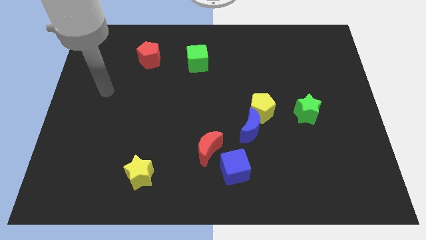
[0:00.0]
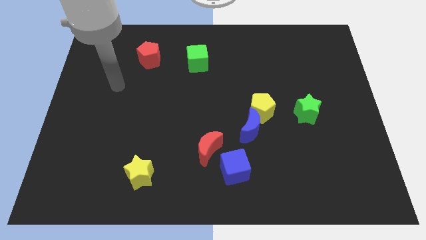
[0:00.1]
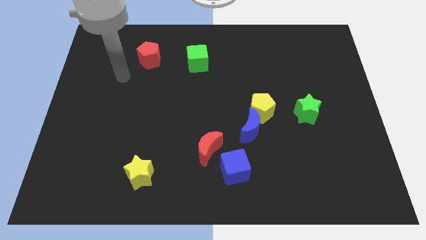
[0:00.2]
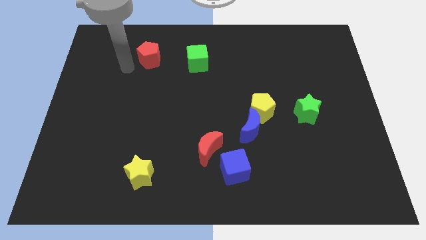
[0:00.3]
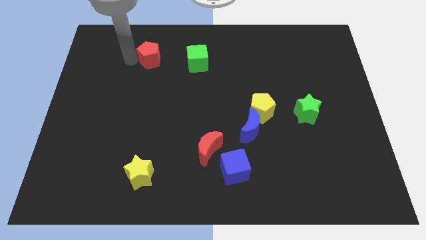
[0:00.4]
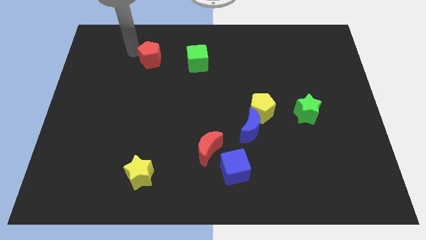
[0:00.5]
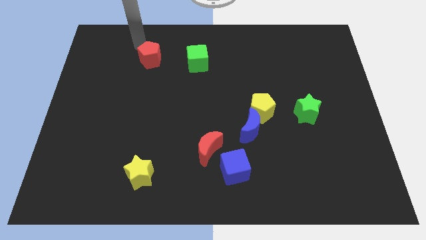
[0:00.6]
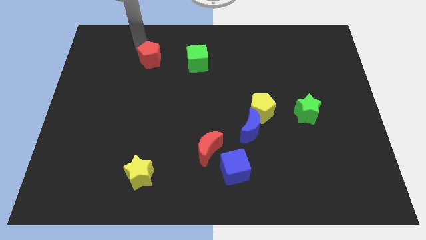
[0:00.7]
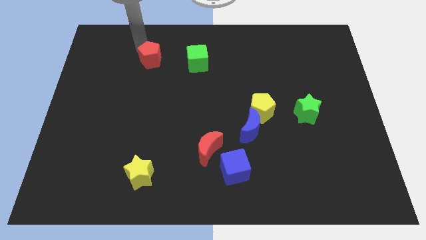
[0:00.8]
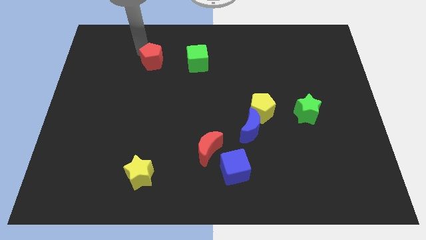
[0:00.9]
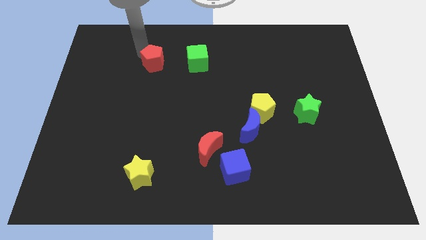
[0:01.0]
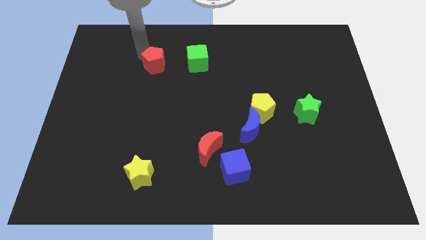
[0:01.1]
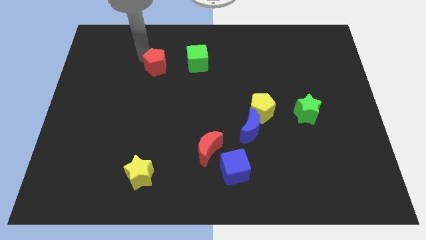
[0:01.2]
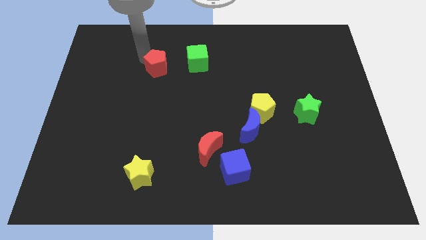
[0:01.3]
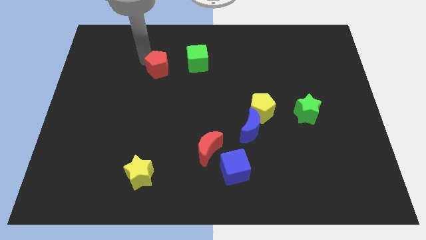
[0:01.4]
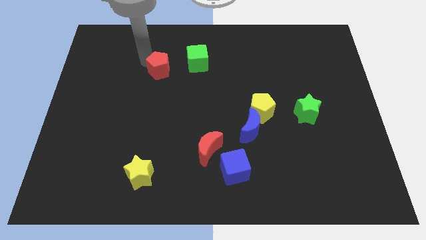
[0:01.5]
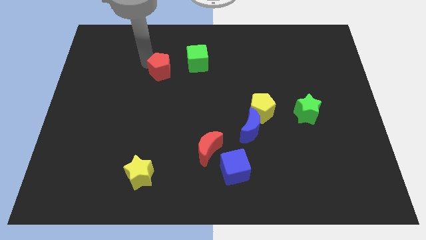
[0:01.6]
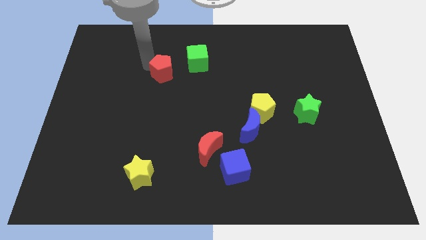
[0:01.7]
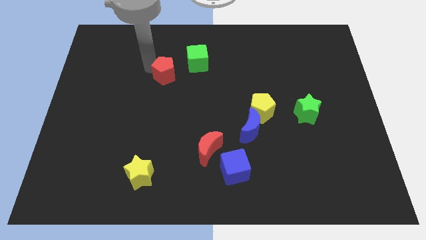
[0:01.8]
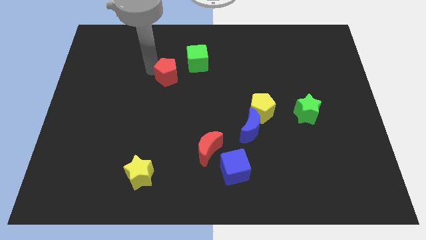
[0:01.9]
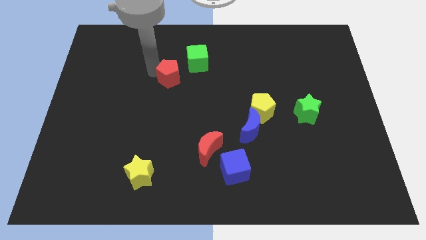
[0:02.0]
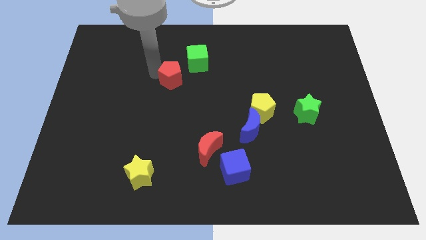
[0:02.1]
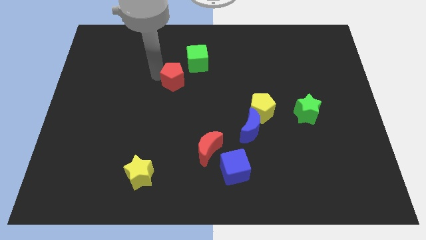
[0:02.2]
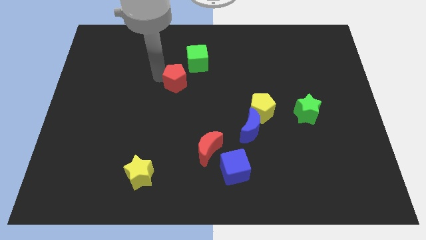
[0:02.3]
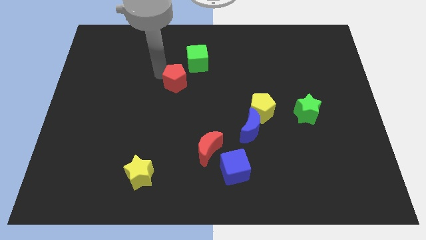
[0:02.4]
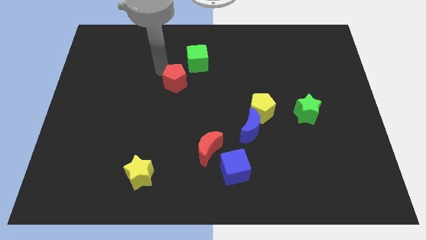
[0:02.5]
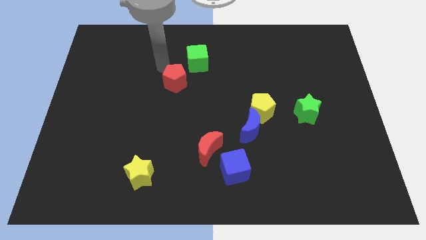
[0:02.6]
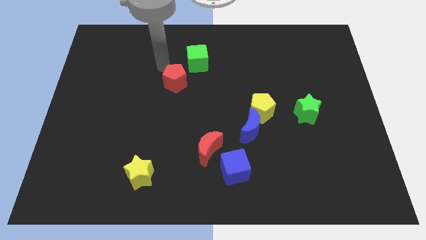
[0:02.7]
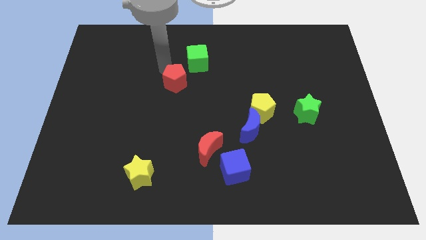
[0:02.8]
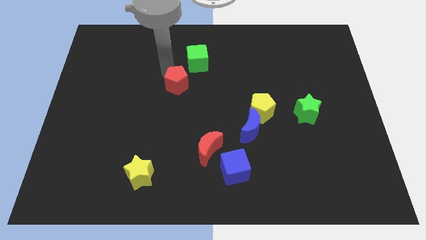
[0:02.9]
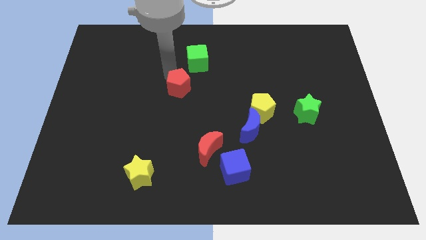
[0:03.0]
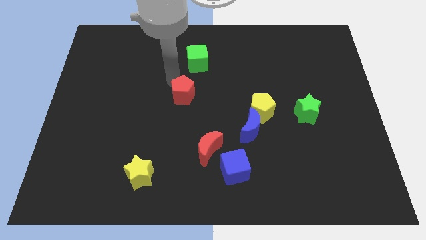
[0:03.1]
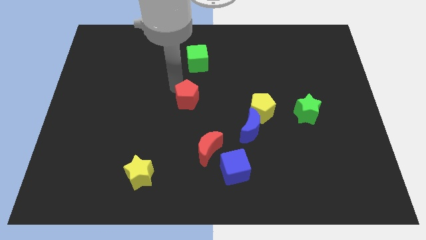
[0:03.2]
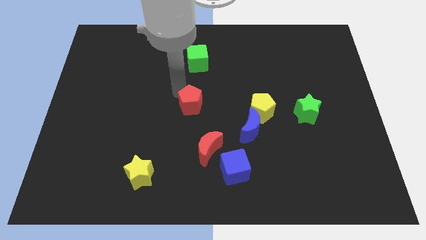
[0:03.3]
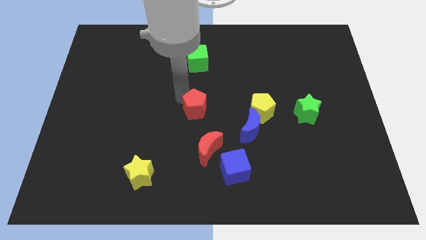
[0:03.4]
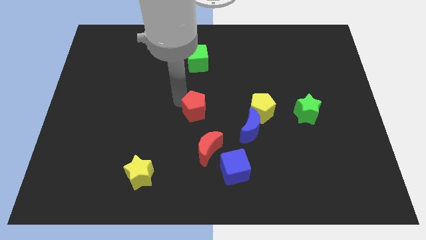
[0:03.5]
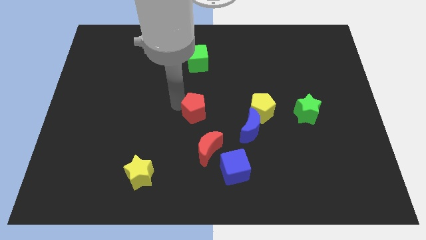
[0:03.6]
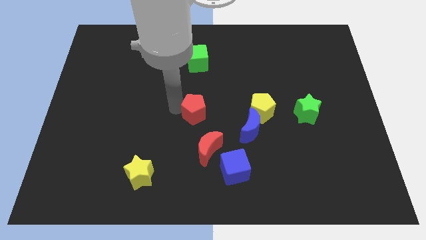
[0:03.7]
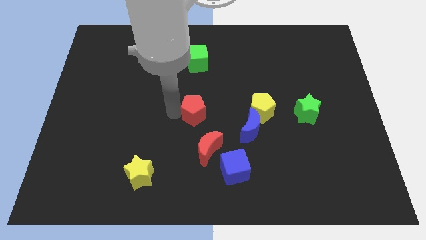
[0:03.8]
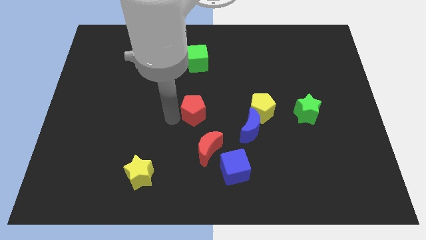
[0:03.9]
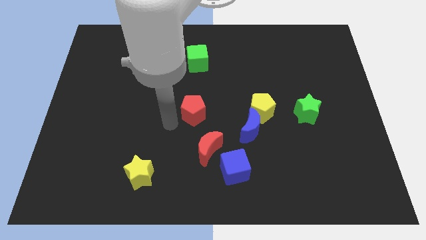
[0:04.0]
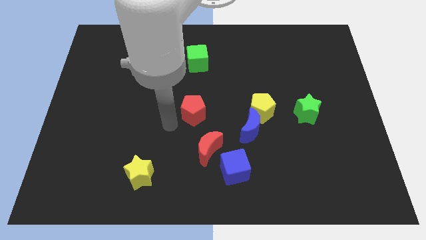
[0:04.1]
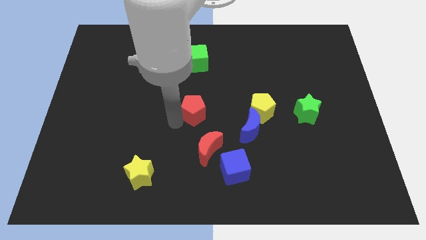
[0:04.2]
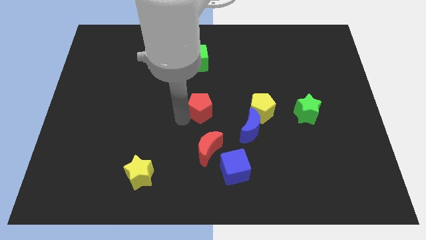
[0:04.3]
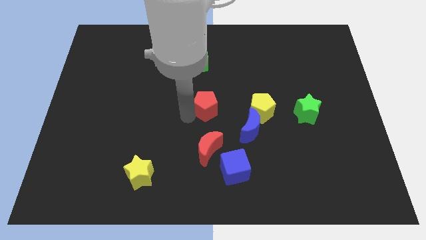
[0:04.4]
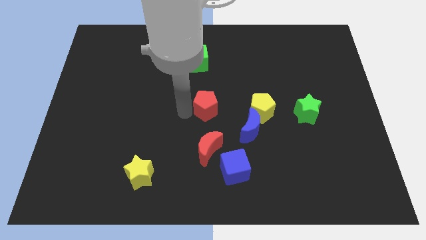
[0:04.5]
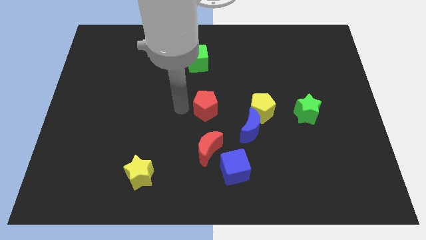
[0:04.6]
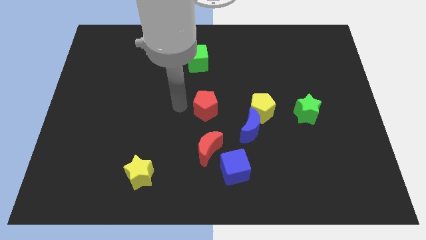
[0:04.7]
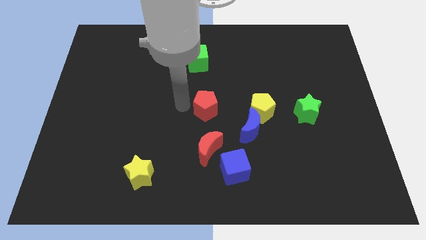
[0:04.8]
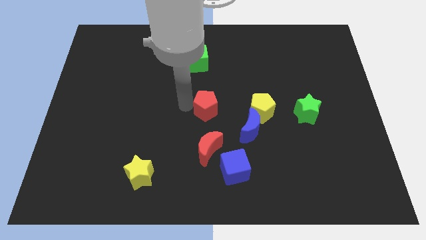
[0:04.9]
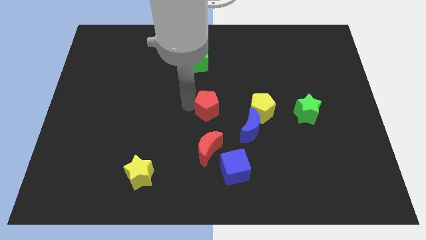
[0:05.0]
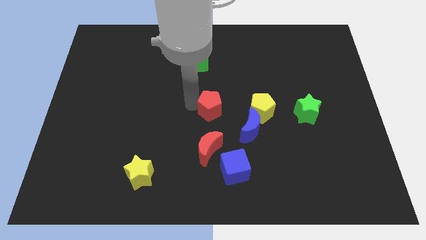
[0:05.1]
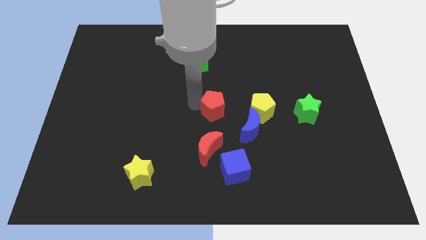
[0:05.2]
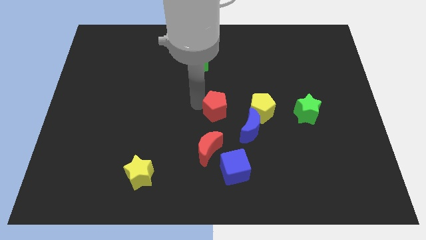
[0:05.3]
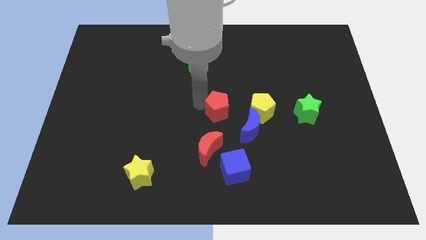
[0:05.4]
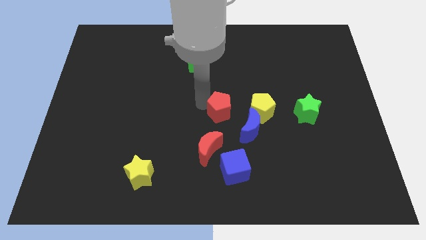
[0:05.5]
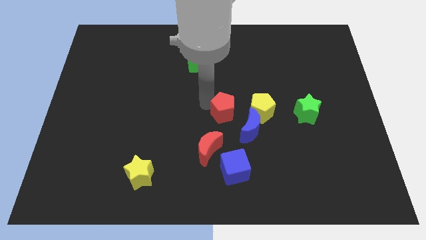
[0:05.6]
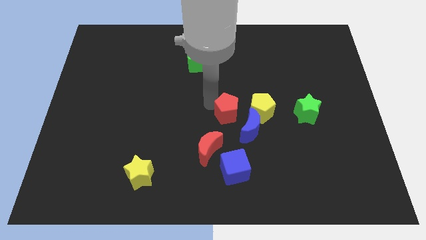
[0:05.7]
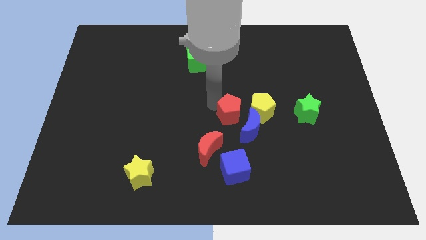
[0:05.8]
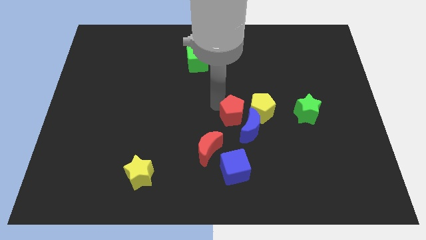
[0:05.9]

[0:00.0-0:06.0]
move the red pentagon close to the blue moon

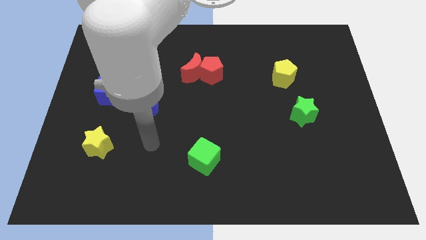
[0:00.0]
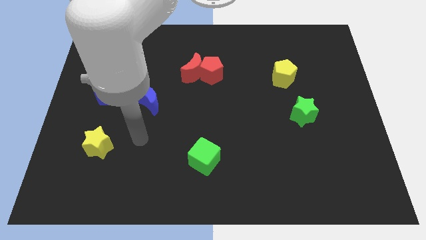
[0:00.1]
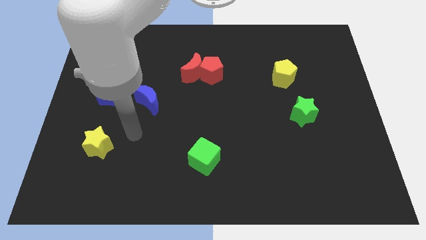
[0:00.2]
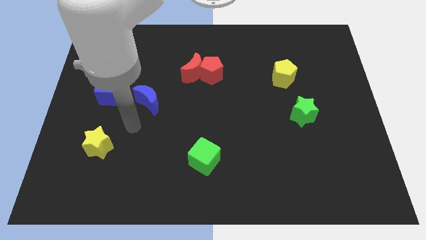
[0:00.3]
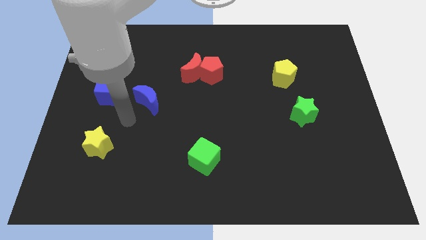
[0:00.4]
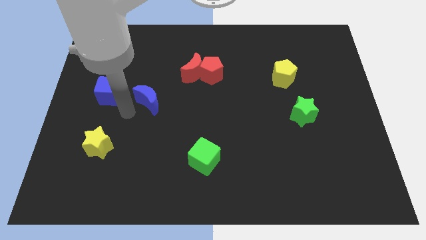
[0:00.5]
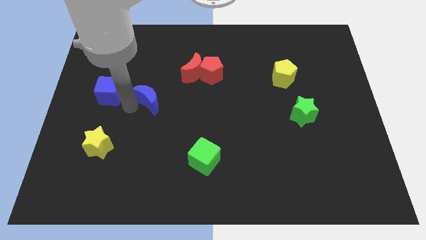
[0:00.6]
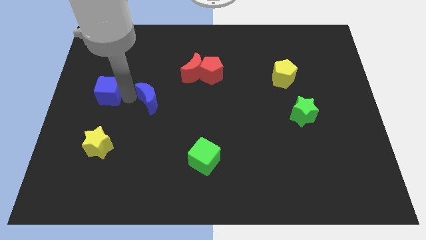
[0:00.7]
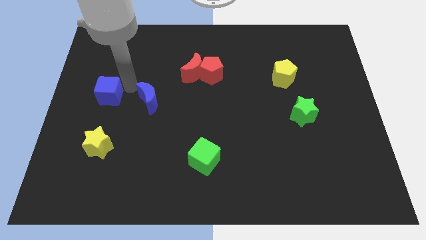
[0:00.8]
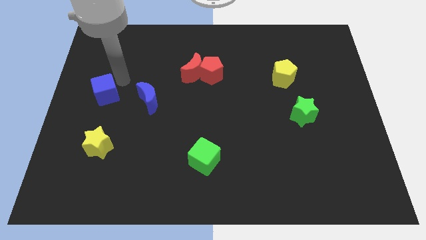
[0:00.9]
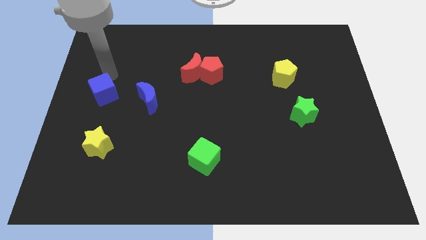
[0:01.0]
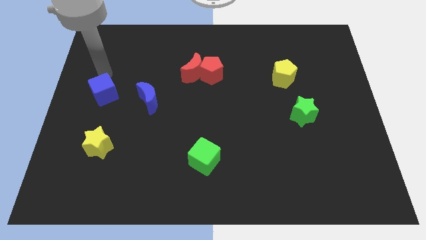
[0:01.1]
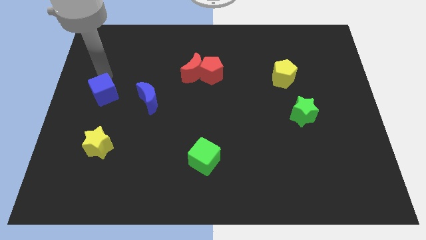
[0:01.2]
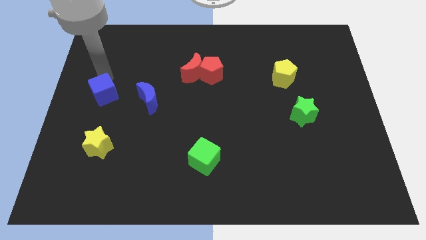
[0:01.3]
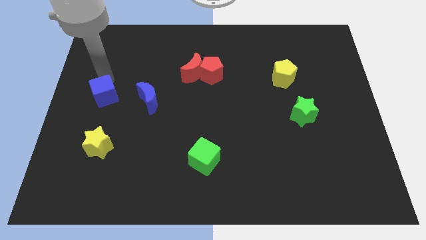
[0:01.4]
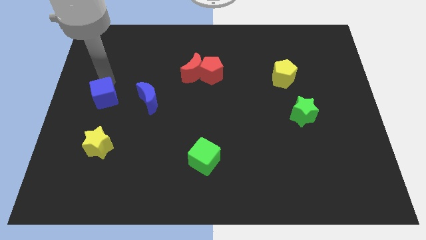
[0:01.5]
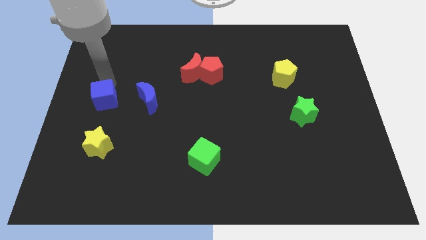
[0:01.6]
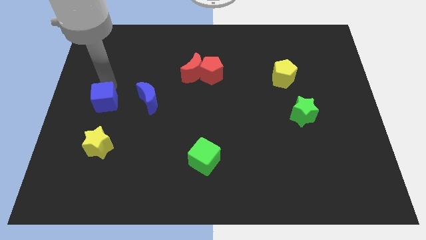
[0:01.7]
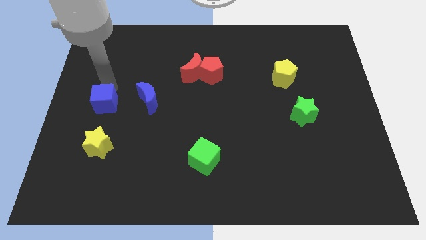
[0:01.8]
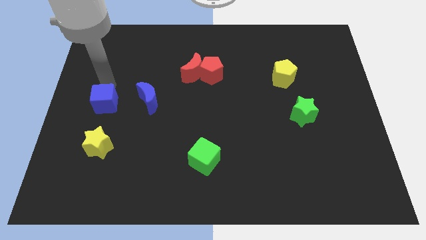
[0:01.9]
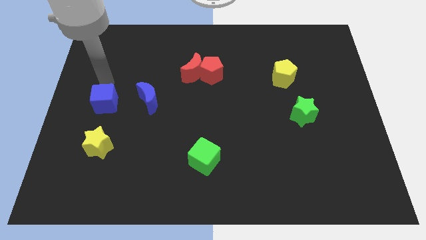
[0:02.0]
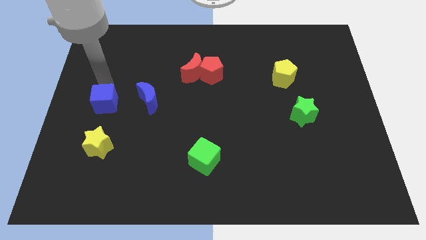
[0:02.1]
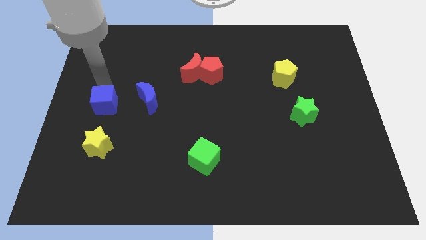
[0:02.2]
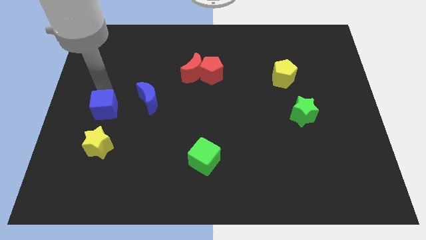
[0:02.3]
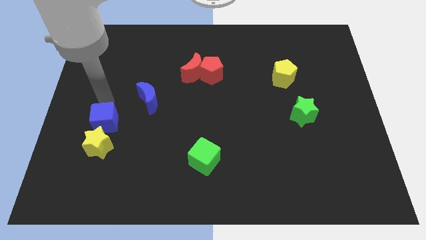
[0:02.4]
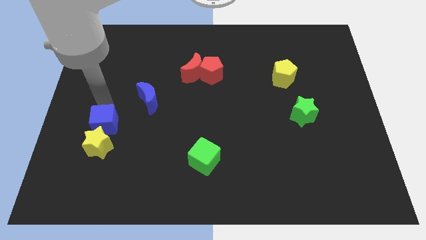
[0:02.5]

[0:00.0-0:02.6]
put the blue cube close to the yellow star
